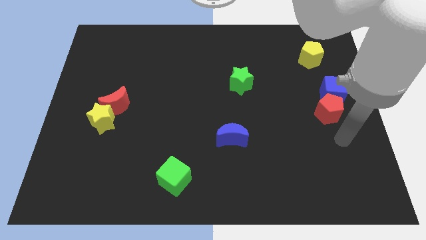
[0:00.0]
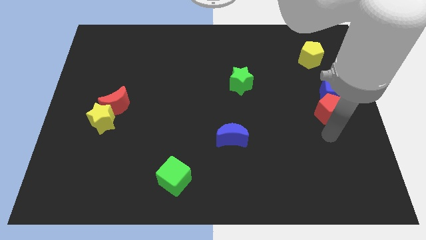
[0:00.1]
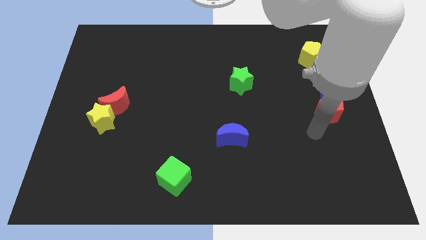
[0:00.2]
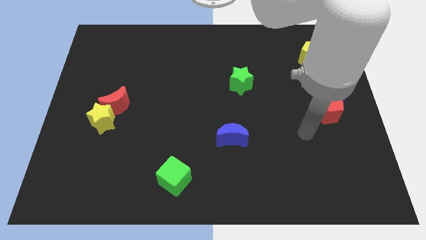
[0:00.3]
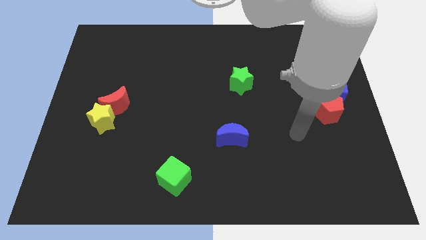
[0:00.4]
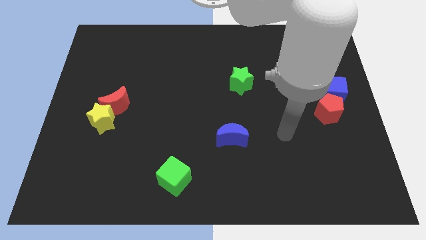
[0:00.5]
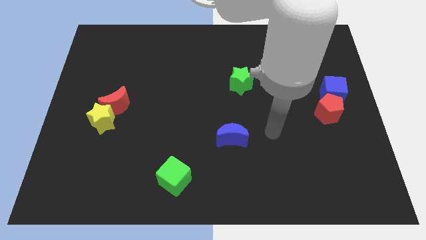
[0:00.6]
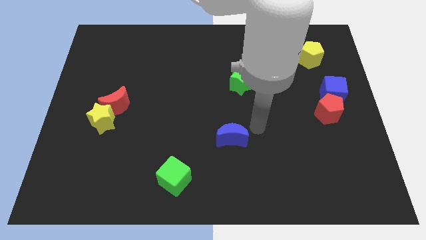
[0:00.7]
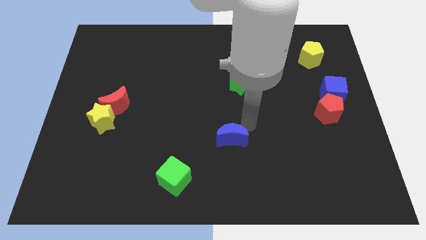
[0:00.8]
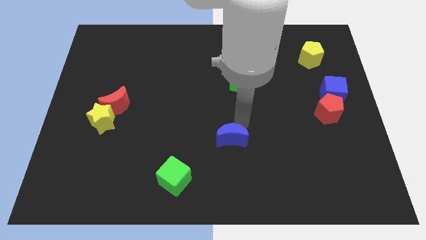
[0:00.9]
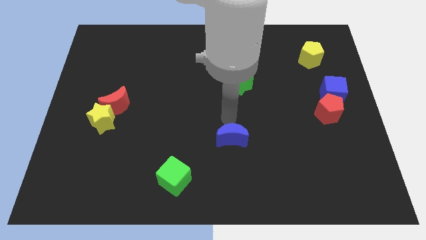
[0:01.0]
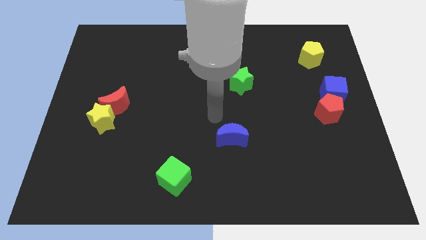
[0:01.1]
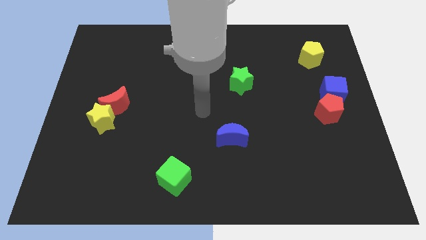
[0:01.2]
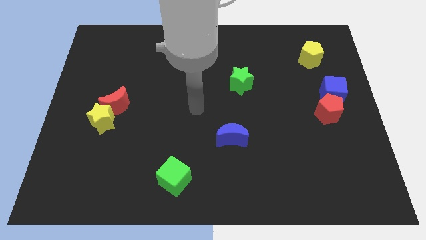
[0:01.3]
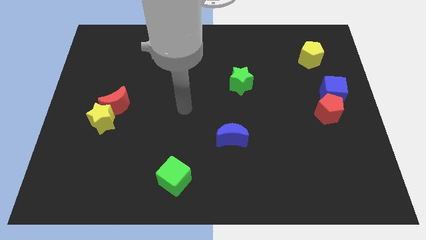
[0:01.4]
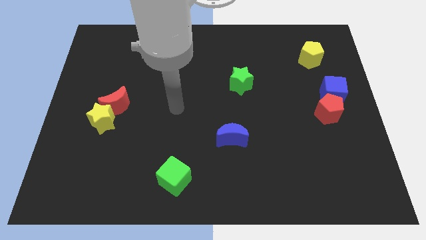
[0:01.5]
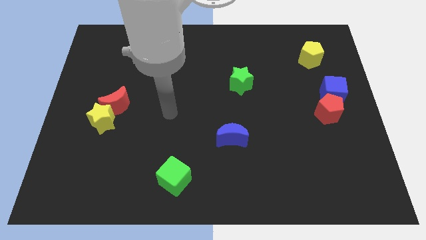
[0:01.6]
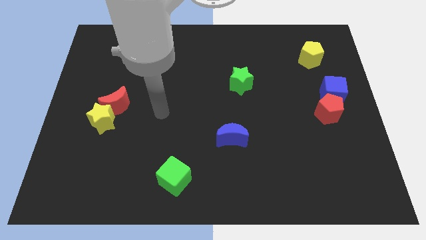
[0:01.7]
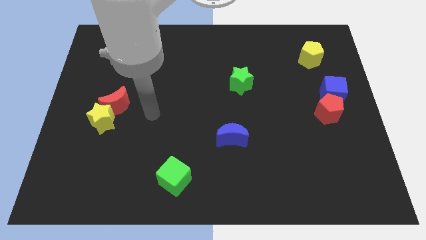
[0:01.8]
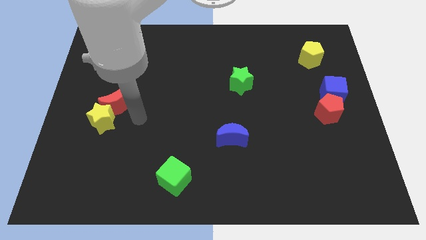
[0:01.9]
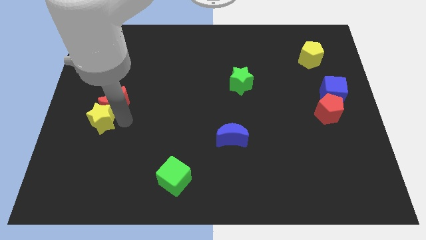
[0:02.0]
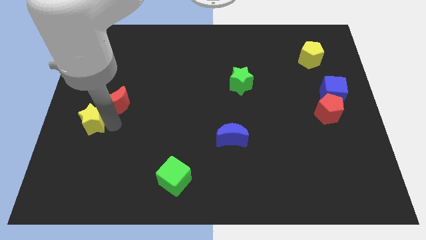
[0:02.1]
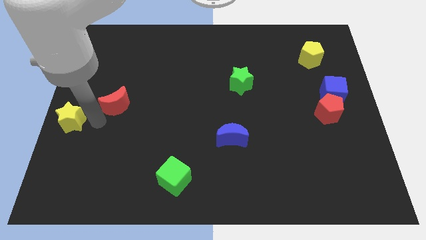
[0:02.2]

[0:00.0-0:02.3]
move the red moon away from the yellow star

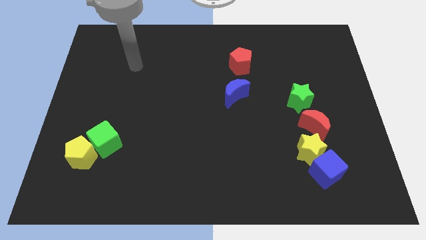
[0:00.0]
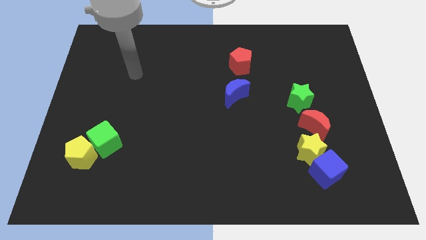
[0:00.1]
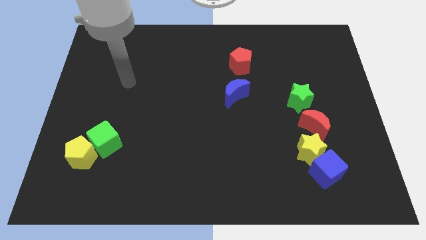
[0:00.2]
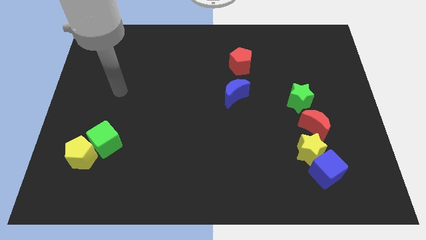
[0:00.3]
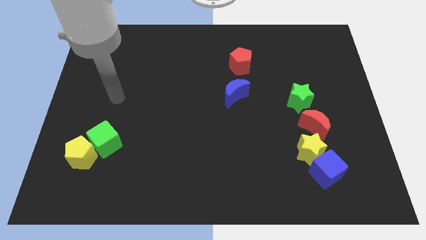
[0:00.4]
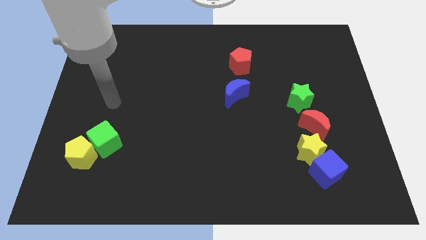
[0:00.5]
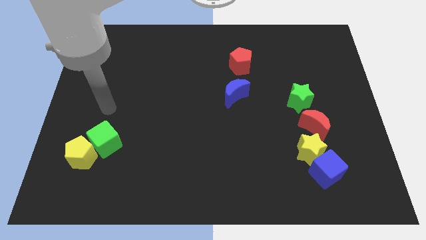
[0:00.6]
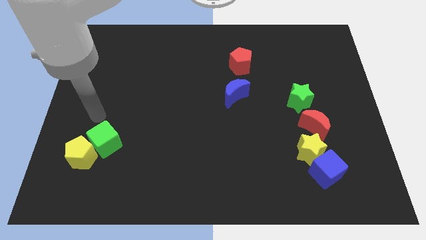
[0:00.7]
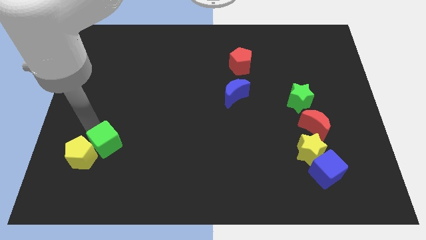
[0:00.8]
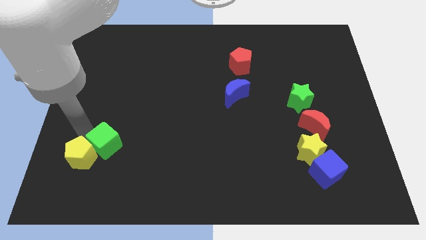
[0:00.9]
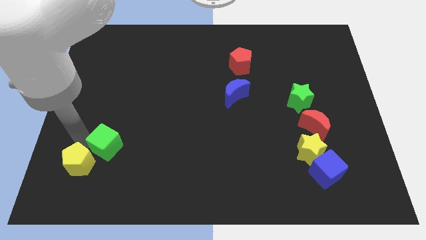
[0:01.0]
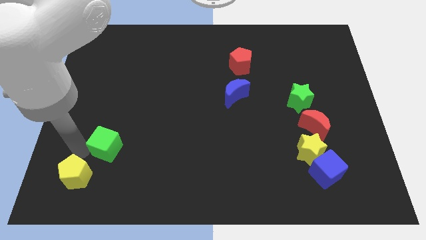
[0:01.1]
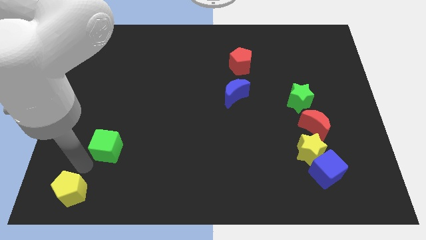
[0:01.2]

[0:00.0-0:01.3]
separate the green cube from the yellow pentagon

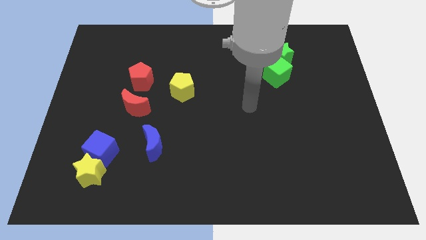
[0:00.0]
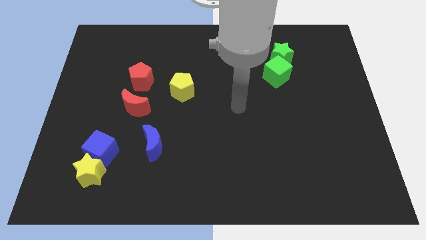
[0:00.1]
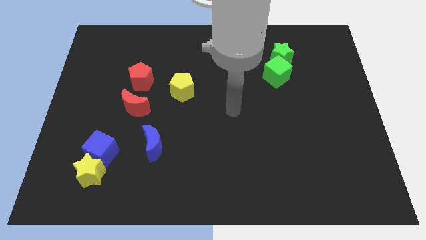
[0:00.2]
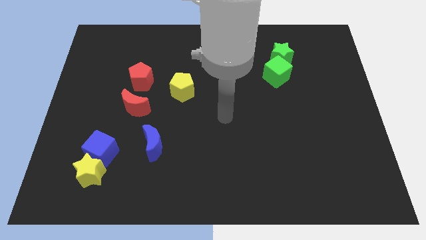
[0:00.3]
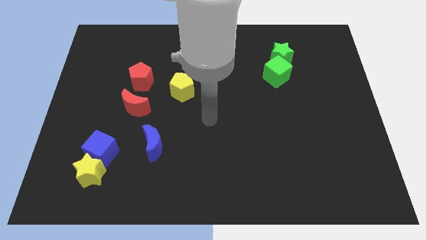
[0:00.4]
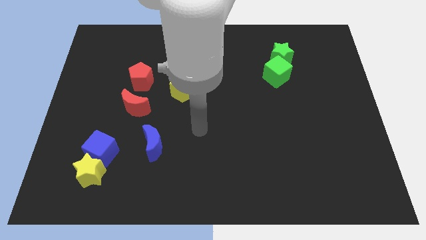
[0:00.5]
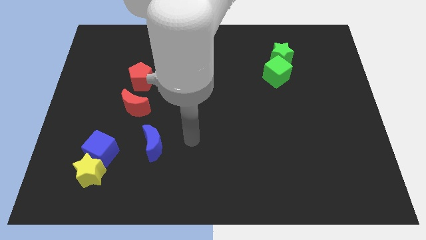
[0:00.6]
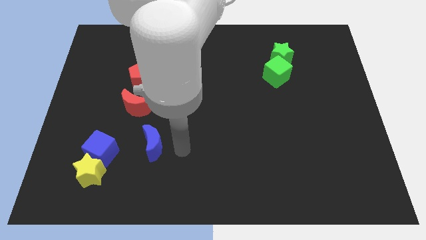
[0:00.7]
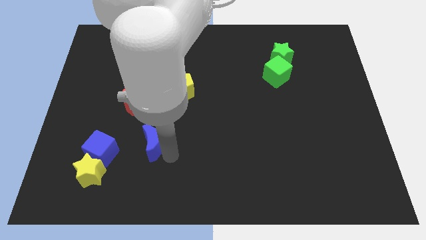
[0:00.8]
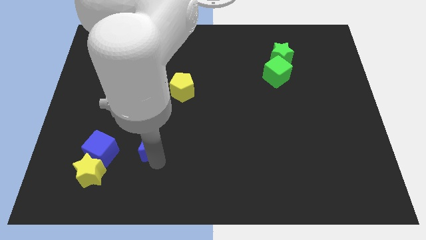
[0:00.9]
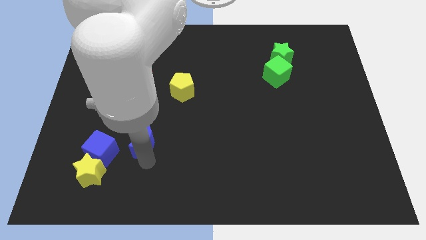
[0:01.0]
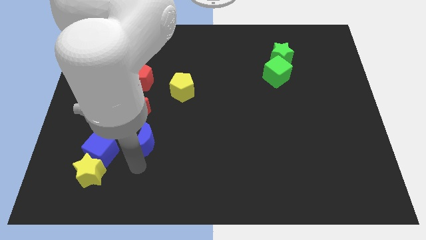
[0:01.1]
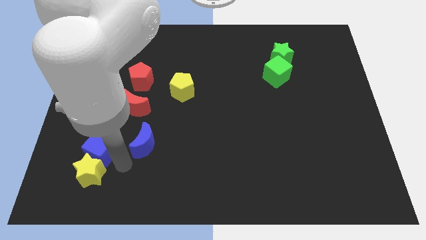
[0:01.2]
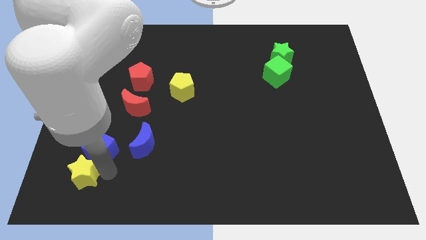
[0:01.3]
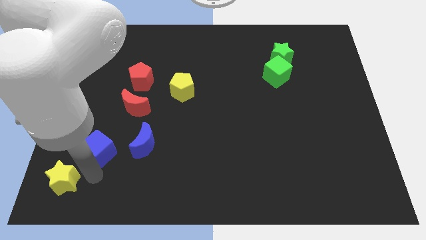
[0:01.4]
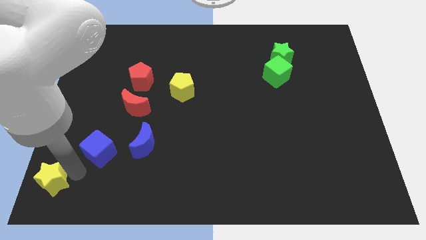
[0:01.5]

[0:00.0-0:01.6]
separate the blue cube from the yellow star

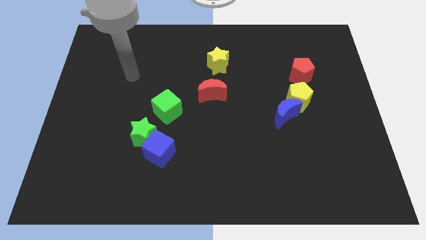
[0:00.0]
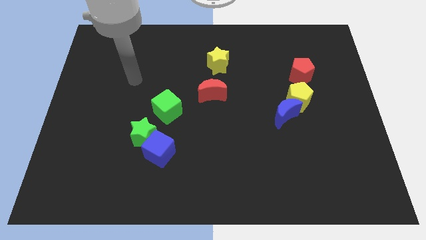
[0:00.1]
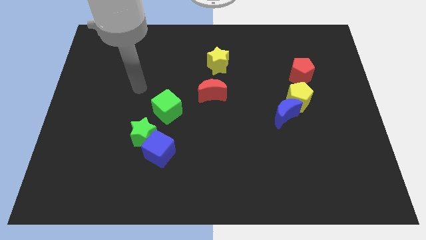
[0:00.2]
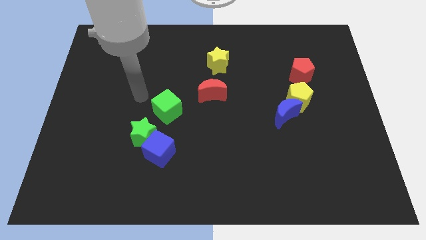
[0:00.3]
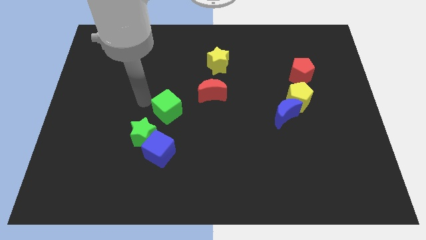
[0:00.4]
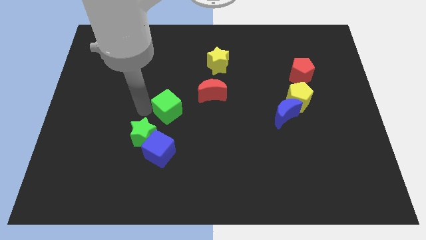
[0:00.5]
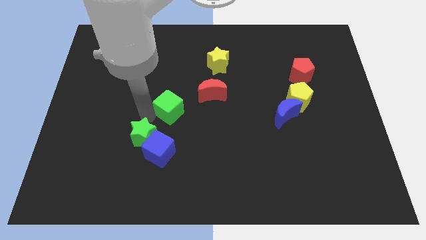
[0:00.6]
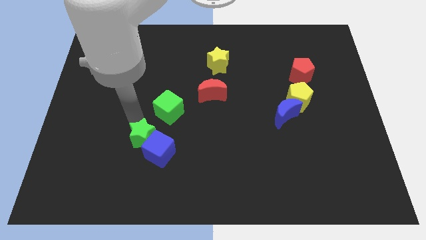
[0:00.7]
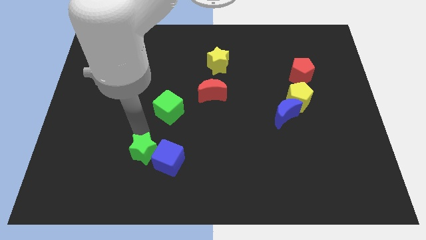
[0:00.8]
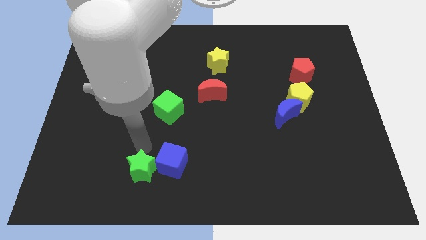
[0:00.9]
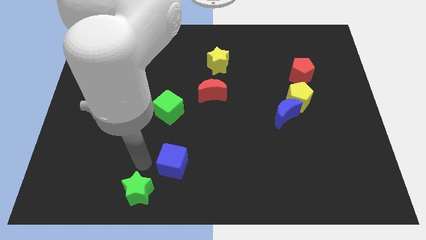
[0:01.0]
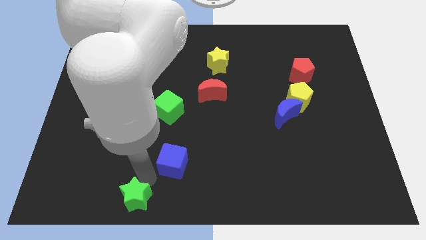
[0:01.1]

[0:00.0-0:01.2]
pull the blue cube apart from the green star

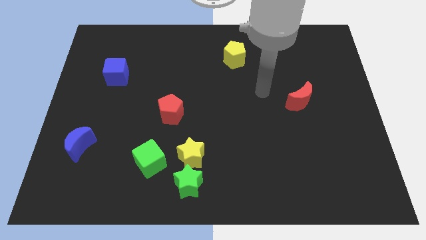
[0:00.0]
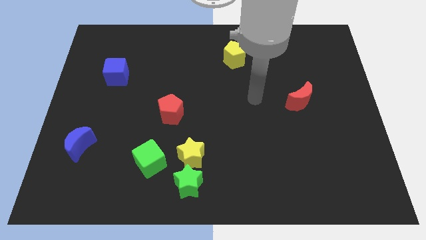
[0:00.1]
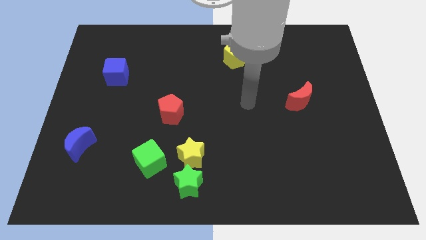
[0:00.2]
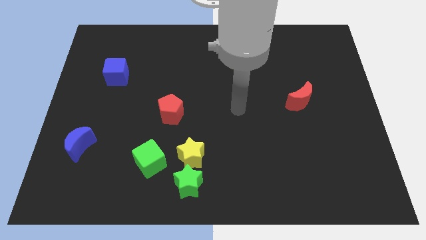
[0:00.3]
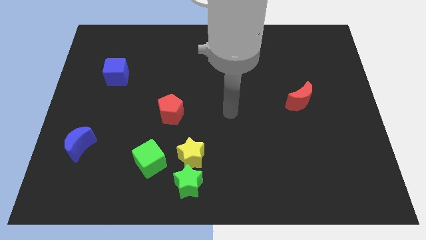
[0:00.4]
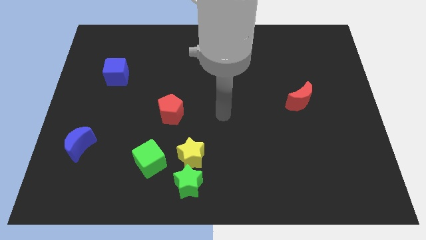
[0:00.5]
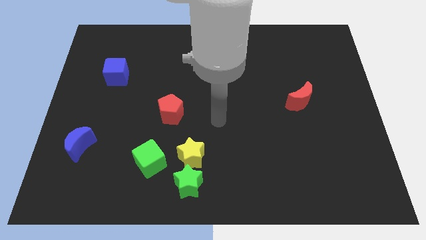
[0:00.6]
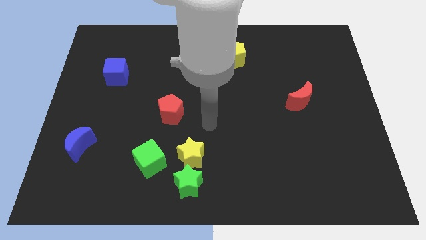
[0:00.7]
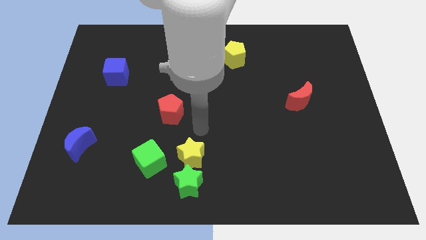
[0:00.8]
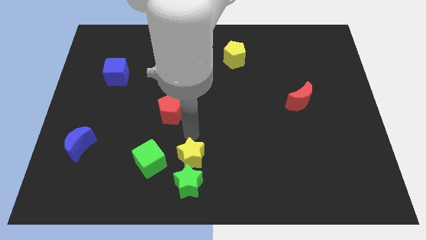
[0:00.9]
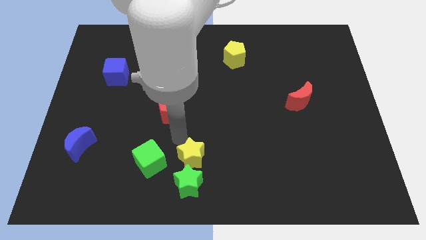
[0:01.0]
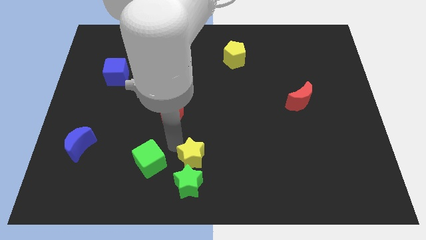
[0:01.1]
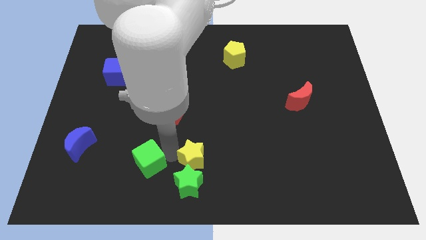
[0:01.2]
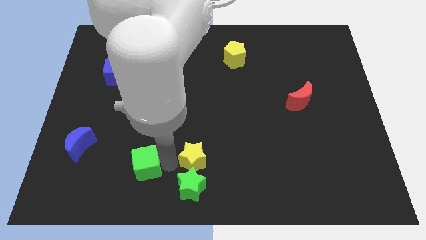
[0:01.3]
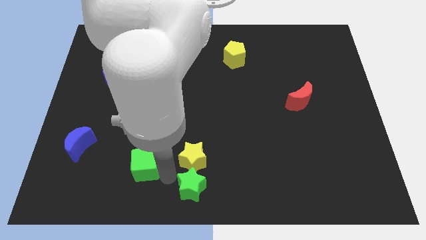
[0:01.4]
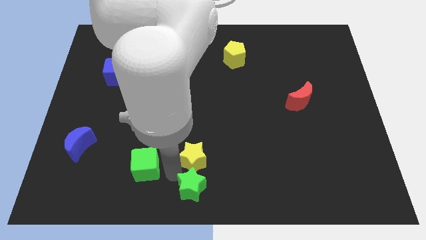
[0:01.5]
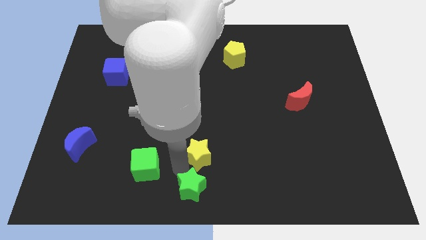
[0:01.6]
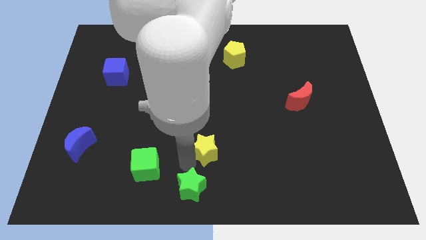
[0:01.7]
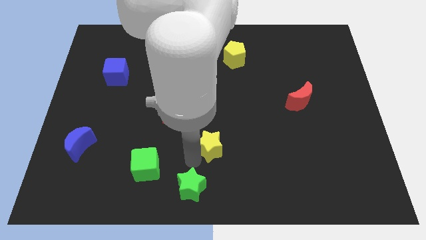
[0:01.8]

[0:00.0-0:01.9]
move the yellow star away from the green star and green cube

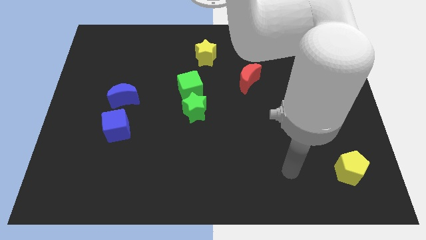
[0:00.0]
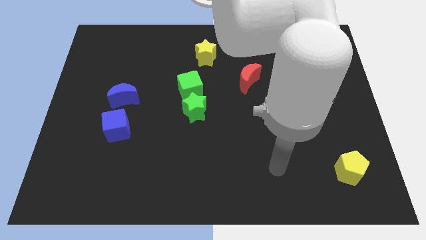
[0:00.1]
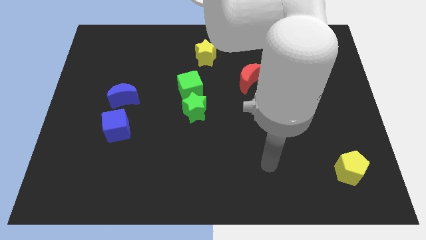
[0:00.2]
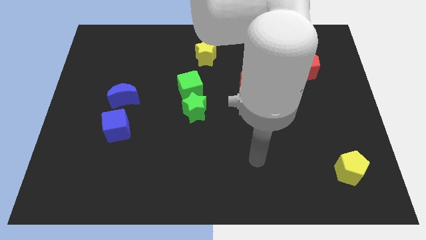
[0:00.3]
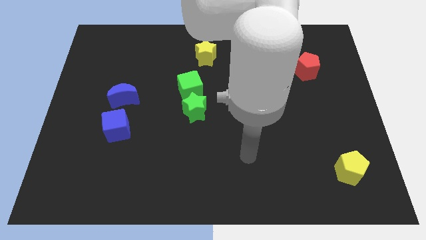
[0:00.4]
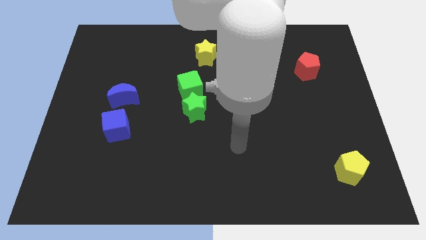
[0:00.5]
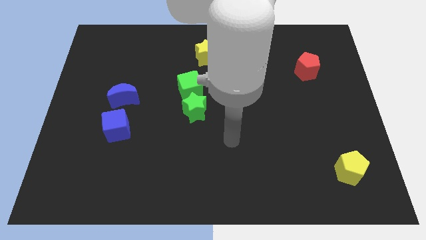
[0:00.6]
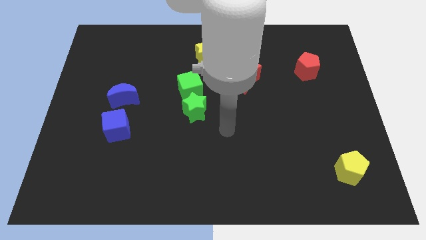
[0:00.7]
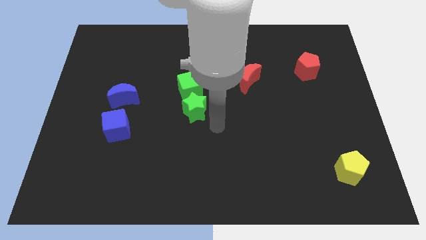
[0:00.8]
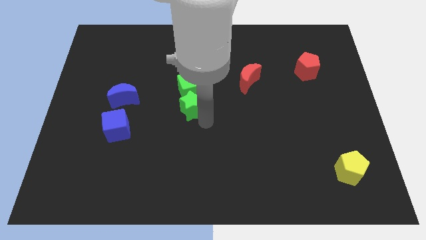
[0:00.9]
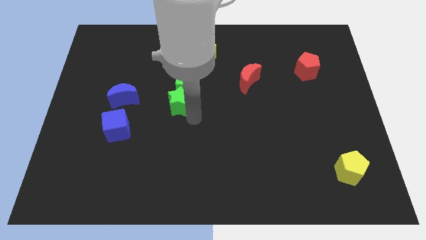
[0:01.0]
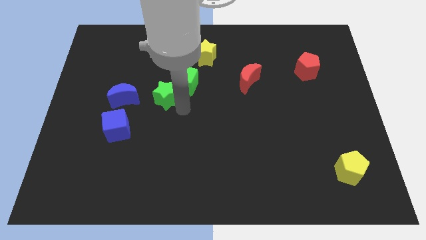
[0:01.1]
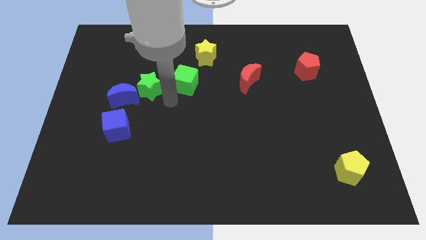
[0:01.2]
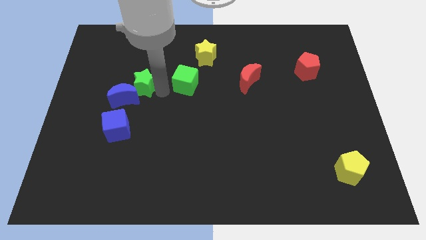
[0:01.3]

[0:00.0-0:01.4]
move the green cube away from the green star
